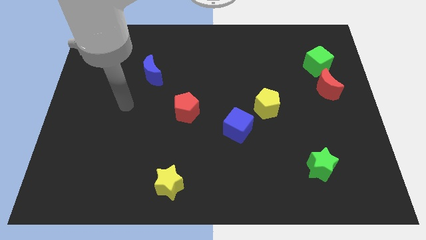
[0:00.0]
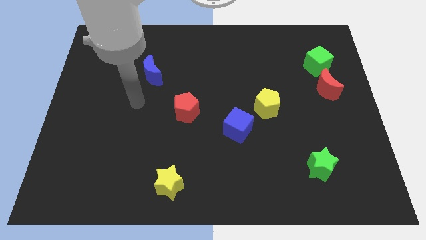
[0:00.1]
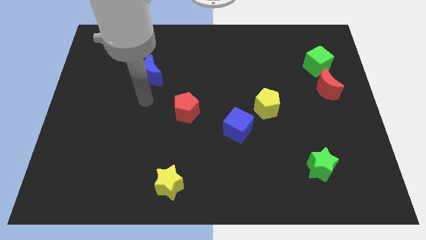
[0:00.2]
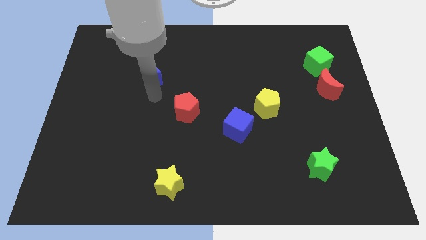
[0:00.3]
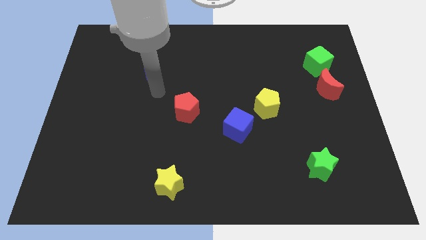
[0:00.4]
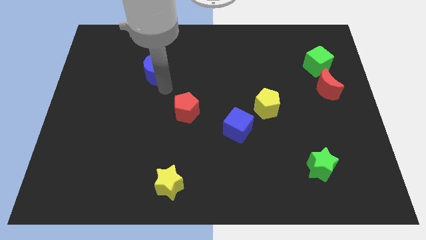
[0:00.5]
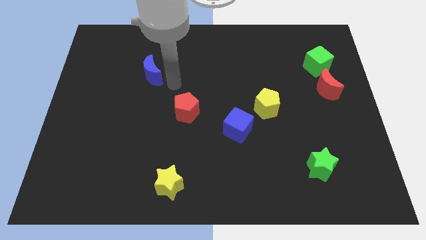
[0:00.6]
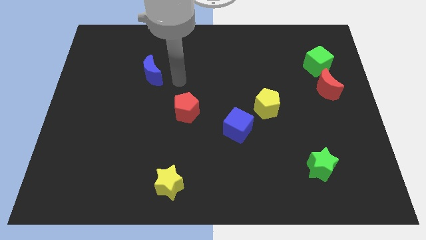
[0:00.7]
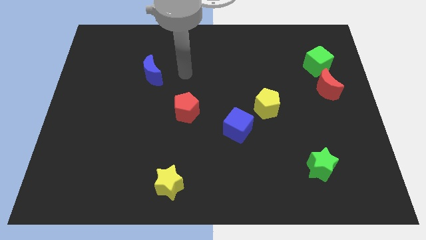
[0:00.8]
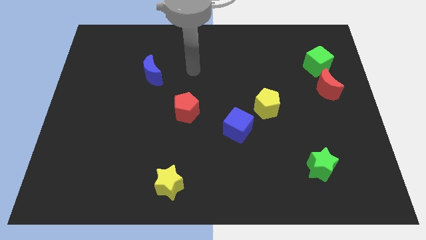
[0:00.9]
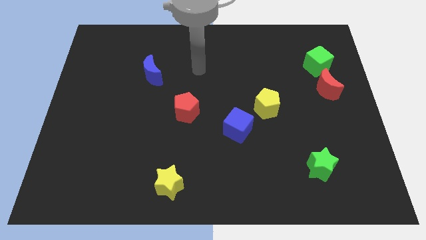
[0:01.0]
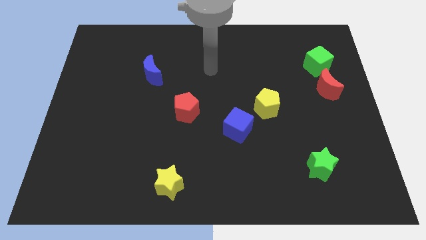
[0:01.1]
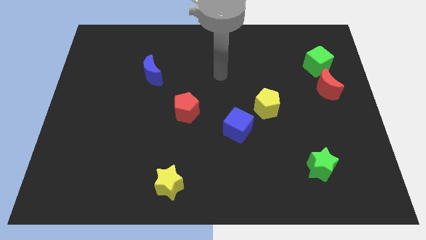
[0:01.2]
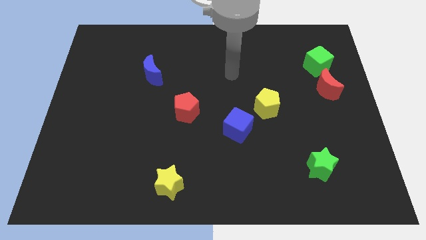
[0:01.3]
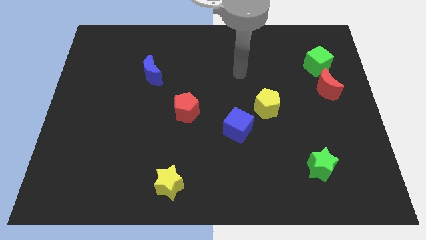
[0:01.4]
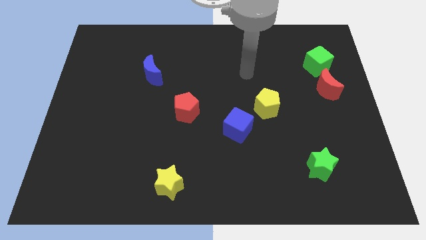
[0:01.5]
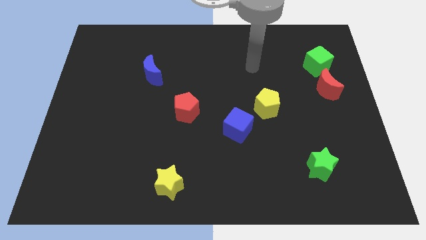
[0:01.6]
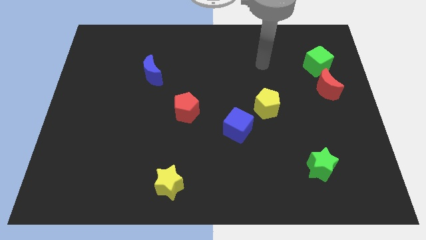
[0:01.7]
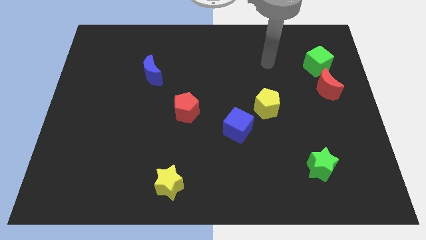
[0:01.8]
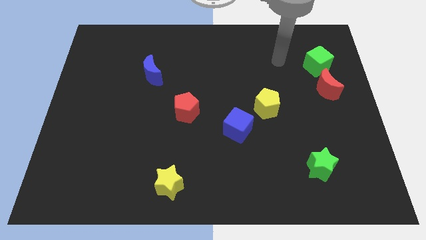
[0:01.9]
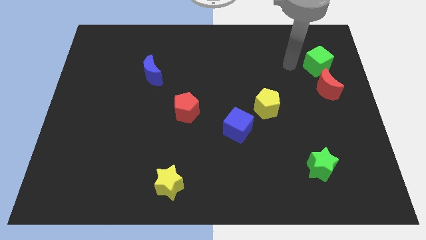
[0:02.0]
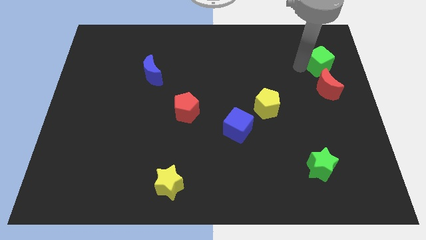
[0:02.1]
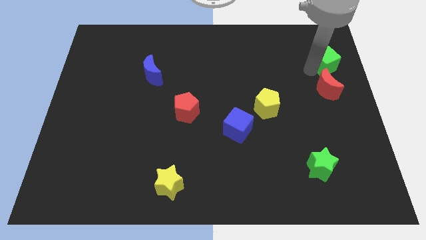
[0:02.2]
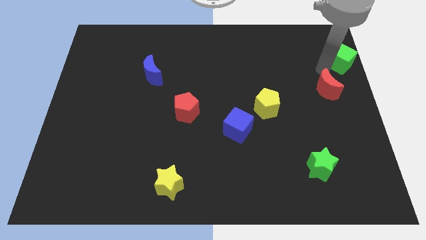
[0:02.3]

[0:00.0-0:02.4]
pull the red moon apart from the green cube

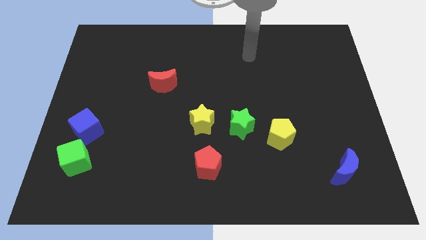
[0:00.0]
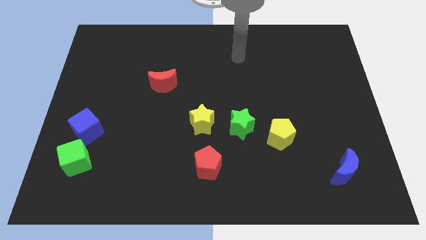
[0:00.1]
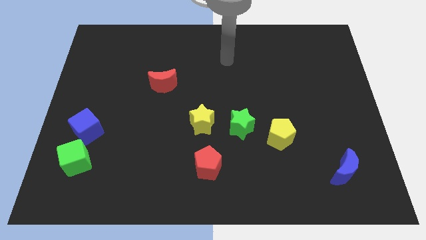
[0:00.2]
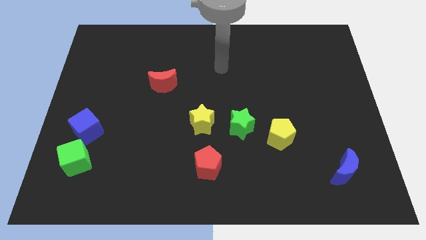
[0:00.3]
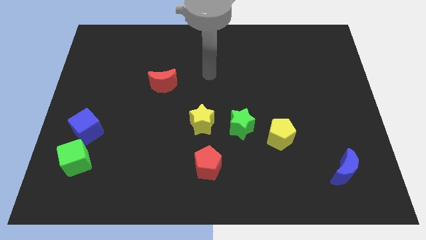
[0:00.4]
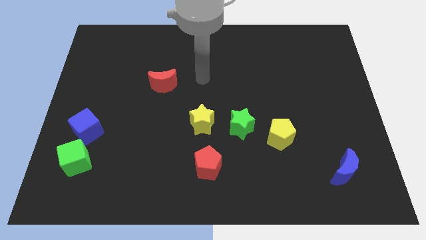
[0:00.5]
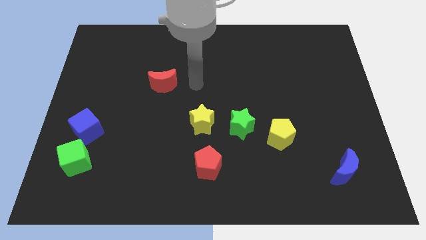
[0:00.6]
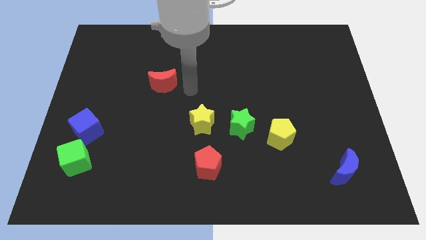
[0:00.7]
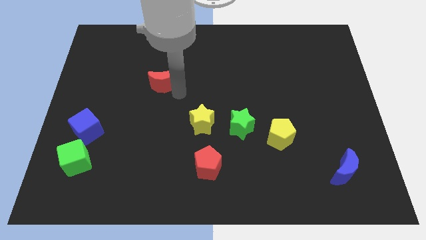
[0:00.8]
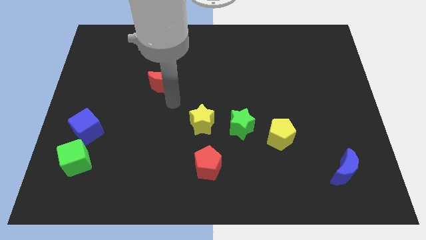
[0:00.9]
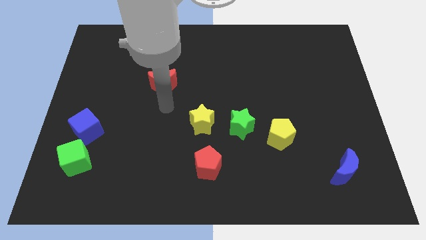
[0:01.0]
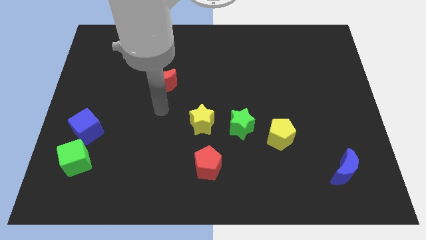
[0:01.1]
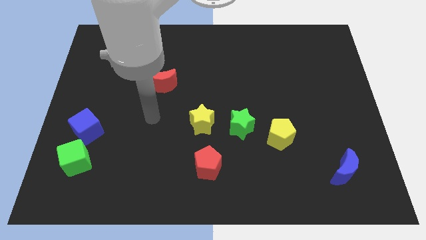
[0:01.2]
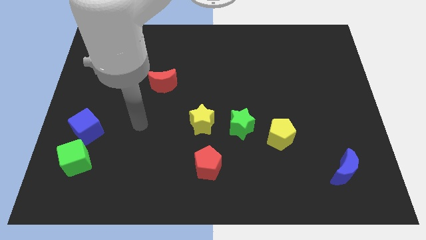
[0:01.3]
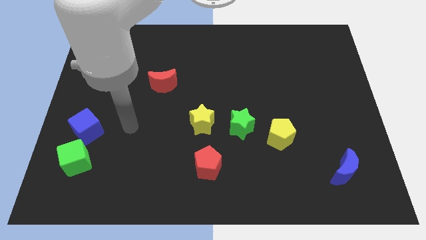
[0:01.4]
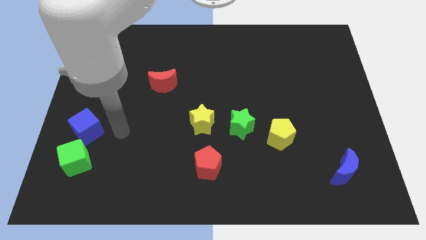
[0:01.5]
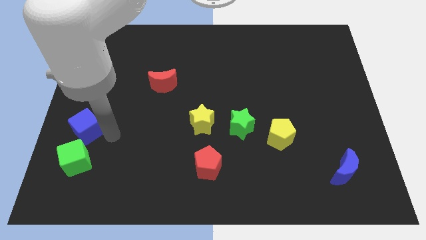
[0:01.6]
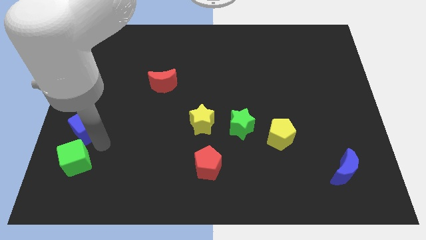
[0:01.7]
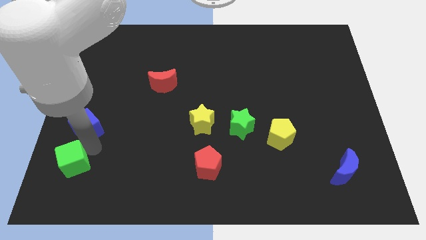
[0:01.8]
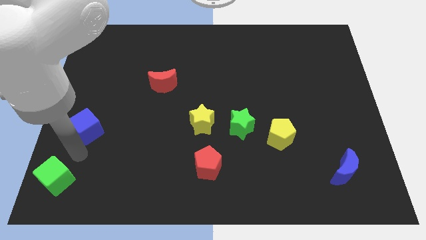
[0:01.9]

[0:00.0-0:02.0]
separate the blue cube from the green cube

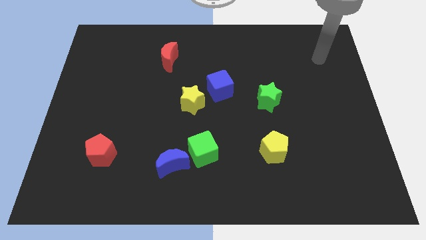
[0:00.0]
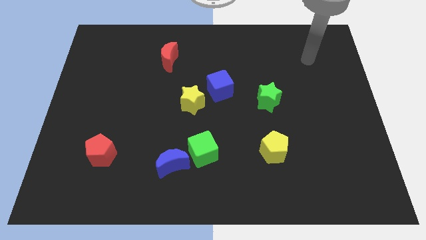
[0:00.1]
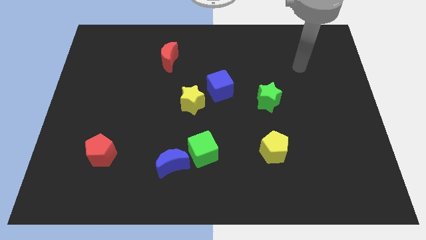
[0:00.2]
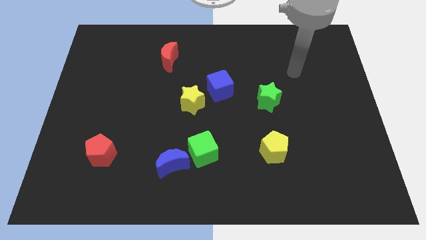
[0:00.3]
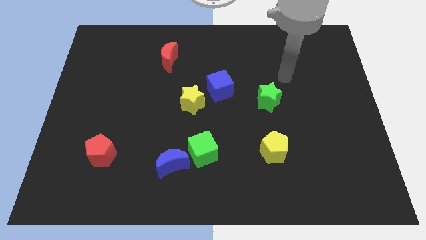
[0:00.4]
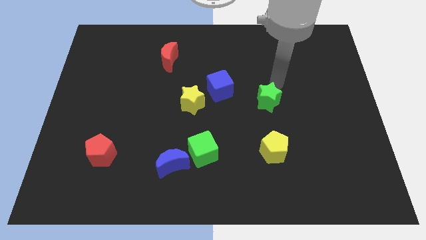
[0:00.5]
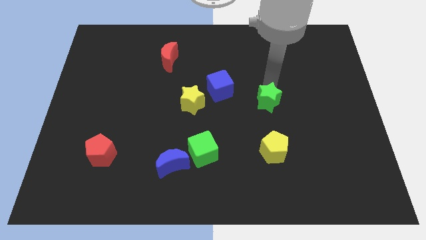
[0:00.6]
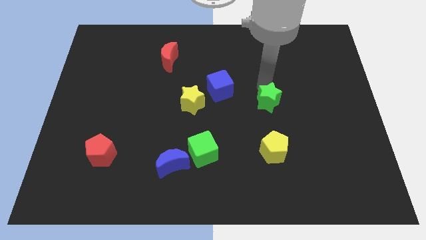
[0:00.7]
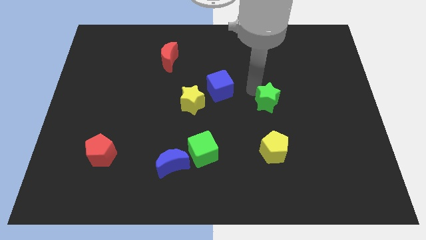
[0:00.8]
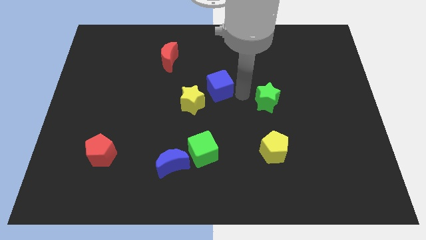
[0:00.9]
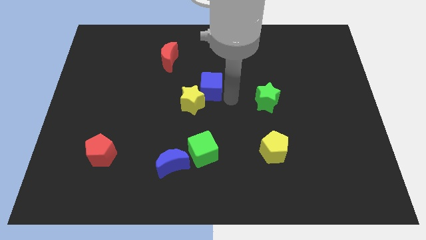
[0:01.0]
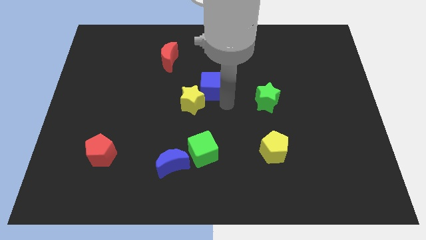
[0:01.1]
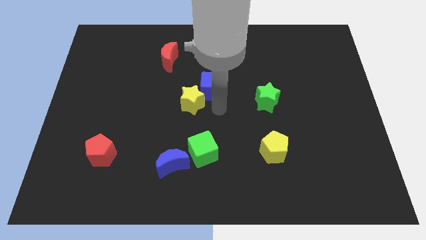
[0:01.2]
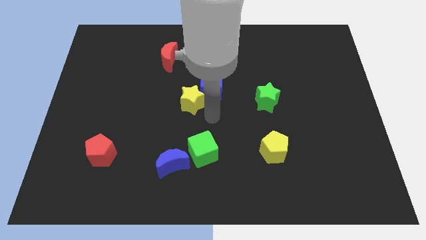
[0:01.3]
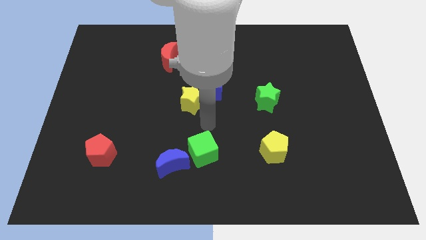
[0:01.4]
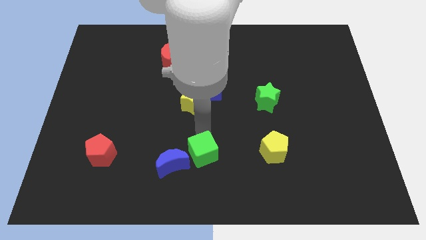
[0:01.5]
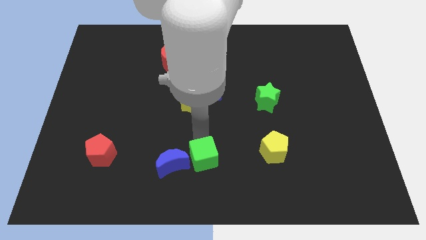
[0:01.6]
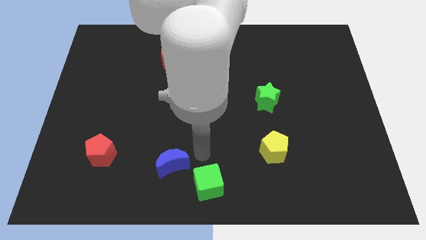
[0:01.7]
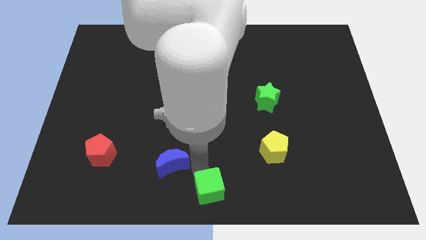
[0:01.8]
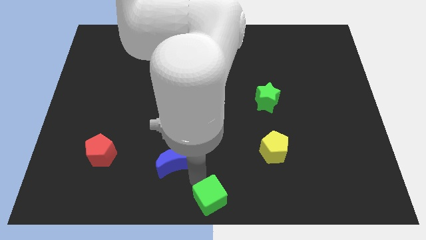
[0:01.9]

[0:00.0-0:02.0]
move the blue moon away from the green cube

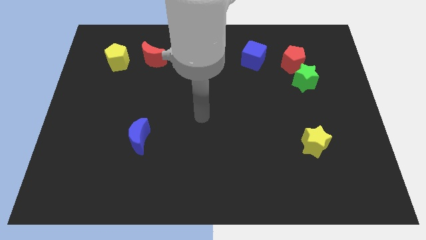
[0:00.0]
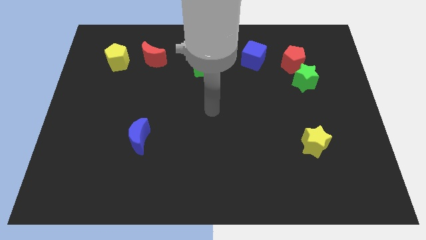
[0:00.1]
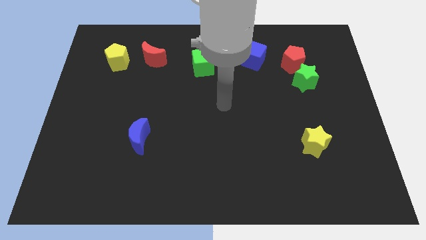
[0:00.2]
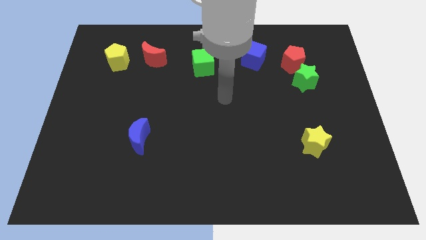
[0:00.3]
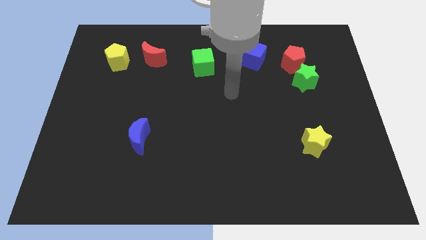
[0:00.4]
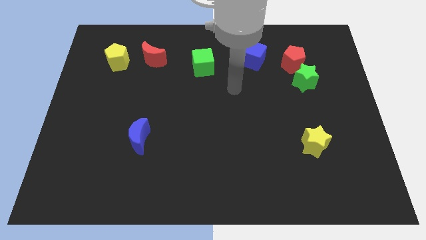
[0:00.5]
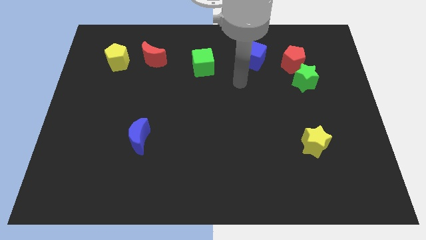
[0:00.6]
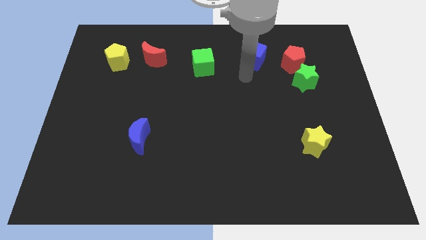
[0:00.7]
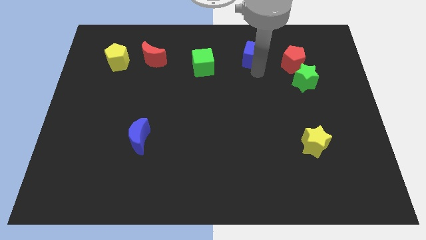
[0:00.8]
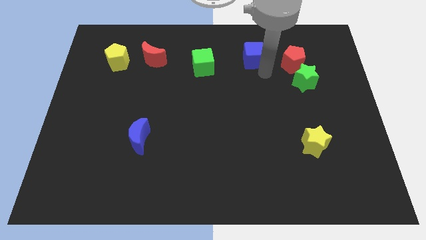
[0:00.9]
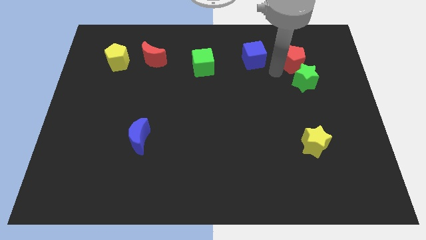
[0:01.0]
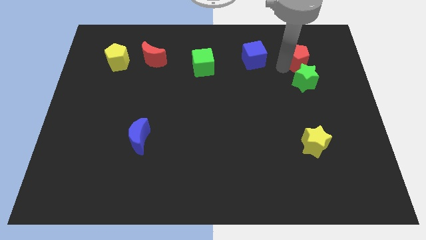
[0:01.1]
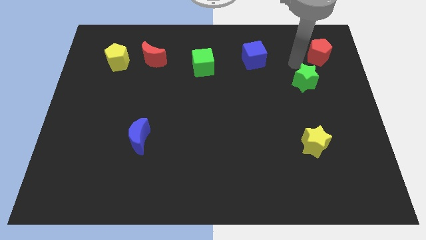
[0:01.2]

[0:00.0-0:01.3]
move the green star away from the red pentagon

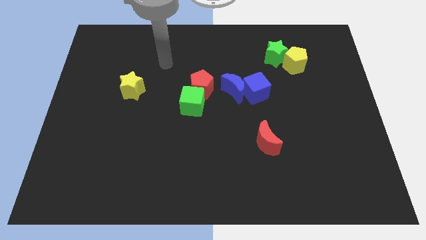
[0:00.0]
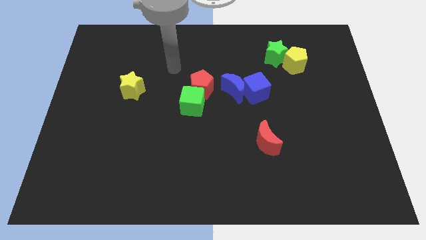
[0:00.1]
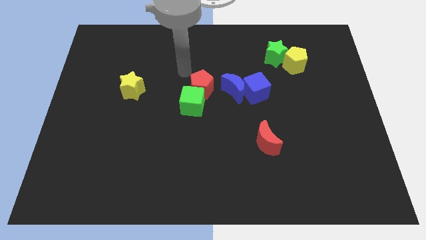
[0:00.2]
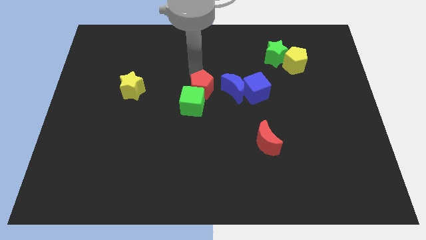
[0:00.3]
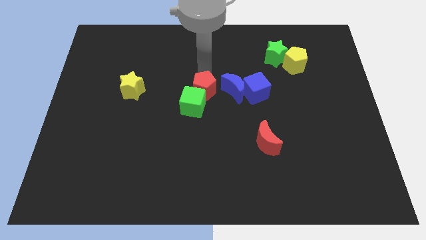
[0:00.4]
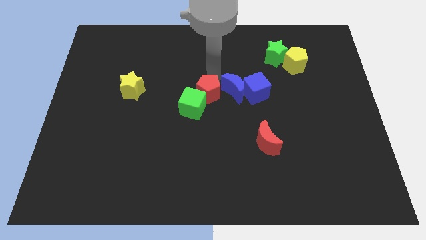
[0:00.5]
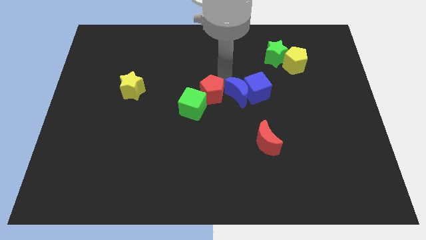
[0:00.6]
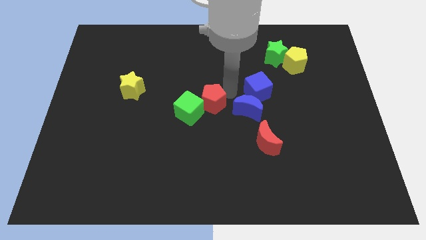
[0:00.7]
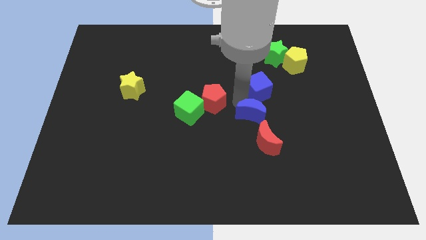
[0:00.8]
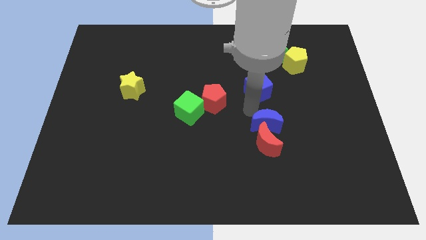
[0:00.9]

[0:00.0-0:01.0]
pull the blue cube apart from the blue moon

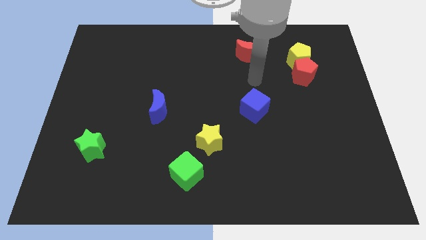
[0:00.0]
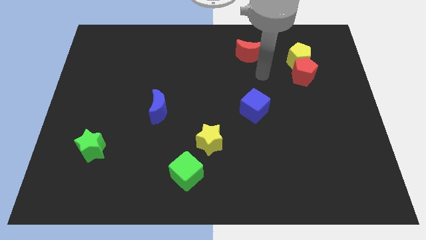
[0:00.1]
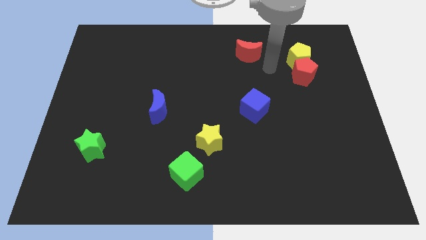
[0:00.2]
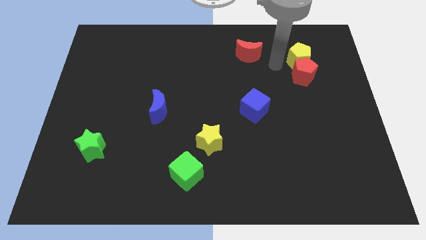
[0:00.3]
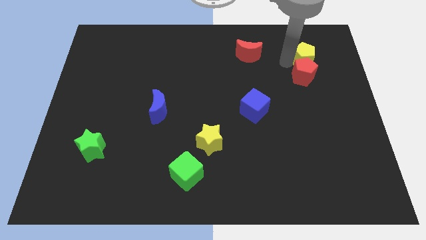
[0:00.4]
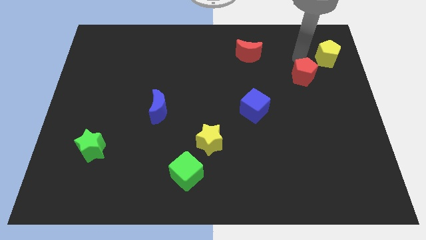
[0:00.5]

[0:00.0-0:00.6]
move the red pentagon away from the yellow pentagon
